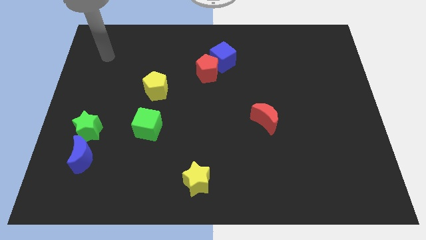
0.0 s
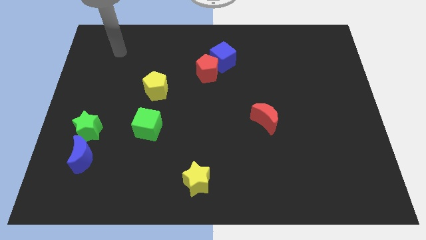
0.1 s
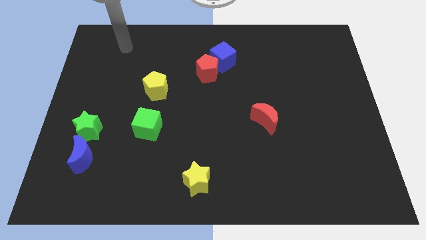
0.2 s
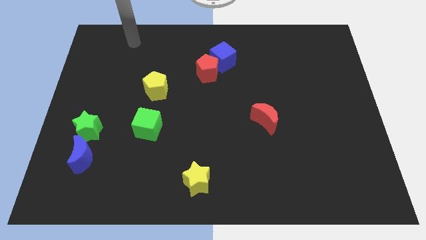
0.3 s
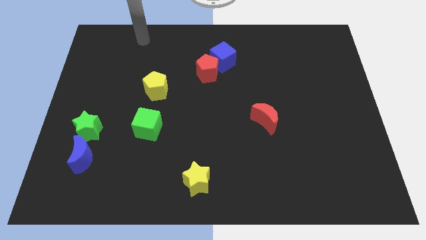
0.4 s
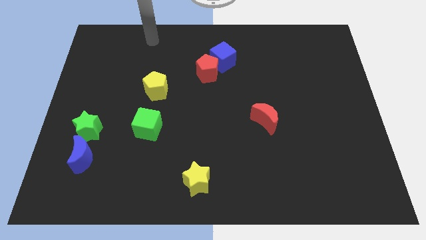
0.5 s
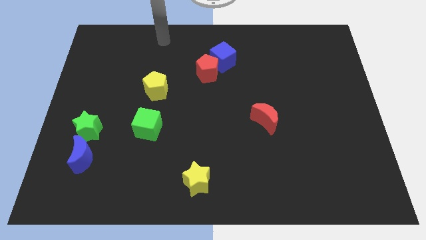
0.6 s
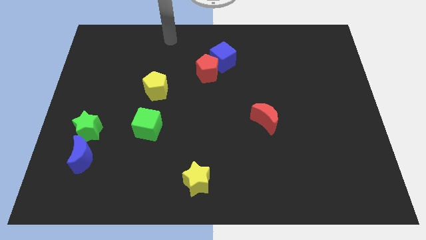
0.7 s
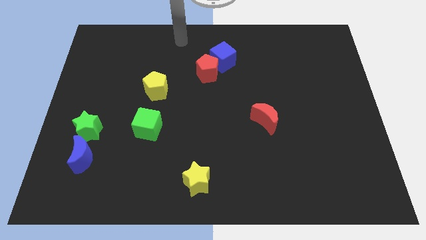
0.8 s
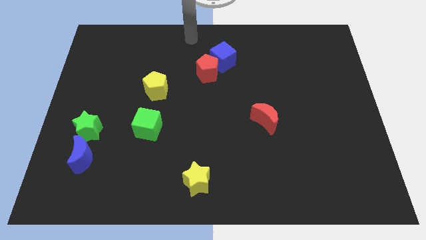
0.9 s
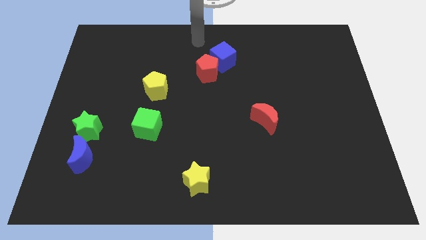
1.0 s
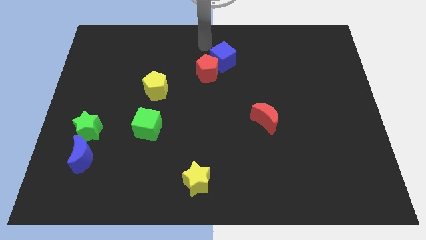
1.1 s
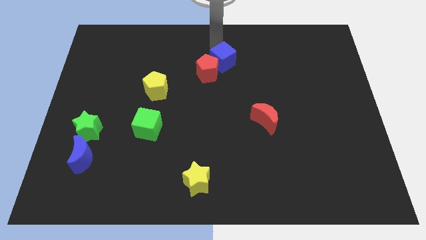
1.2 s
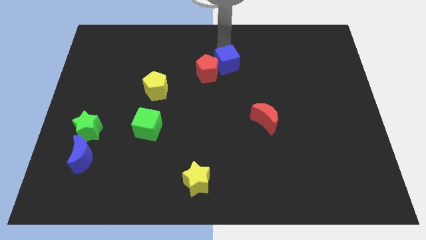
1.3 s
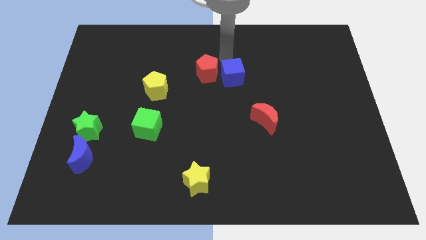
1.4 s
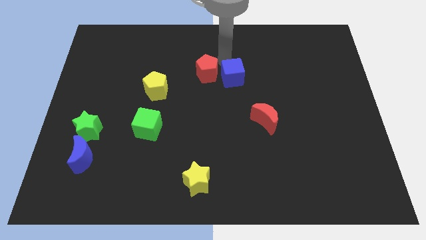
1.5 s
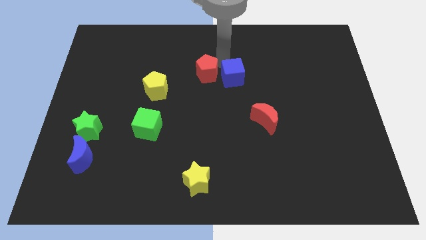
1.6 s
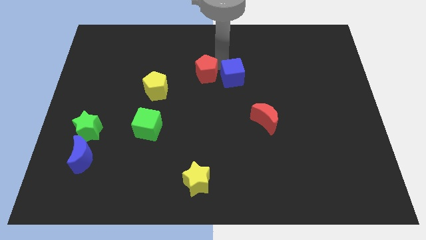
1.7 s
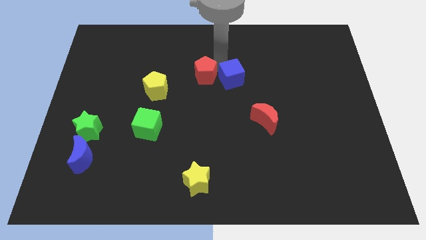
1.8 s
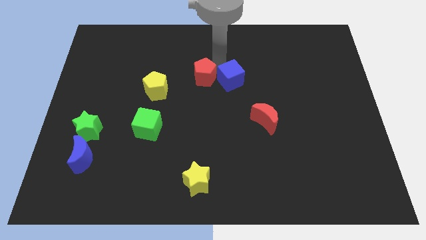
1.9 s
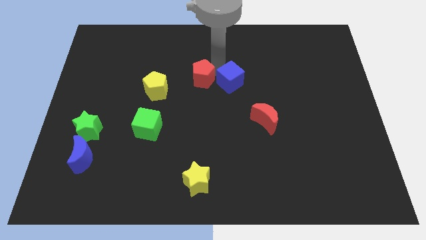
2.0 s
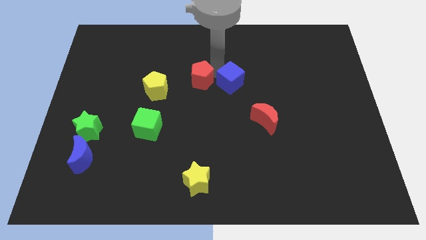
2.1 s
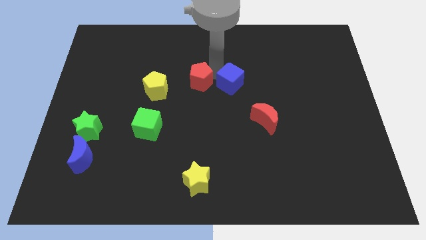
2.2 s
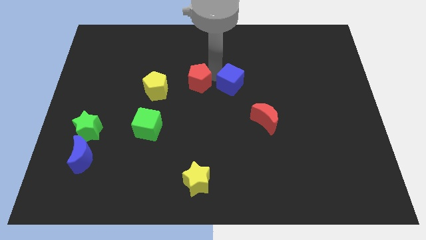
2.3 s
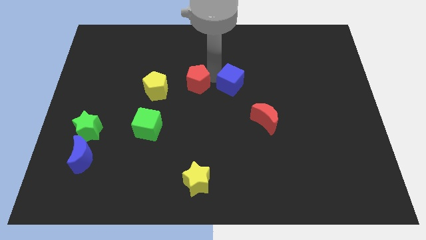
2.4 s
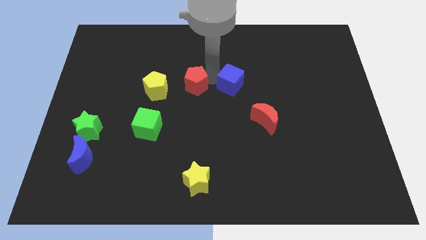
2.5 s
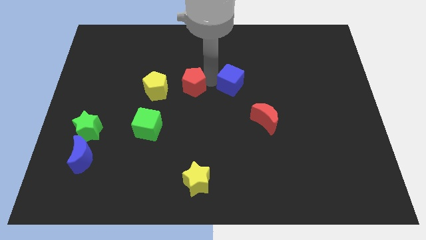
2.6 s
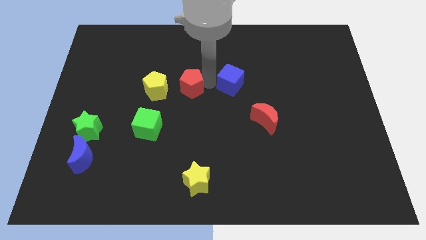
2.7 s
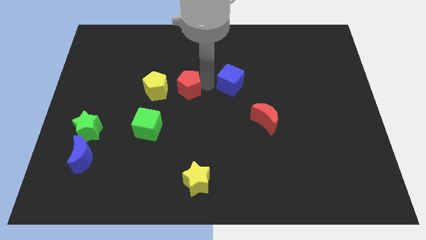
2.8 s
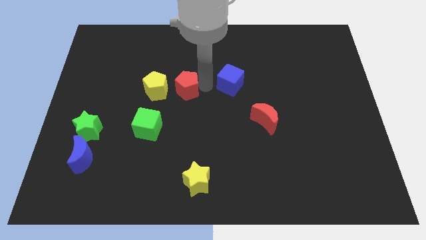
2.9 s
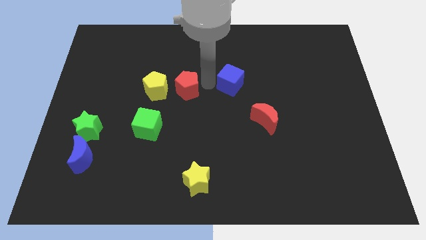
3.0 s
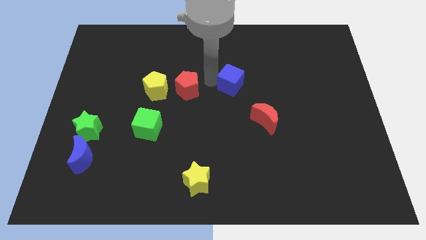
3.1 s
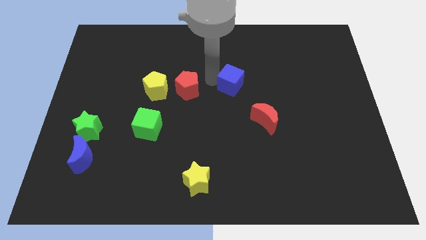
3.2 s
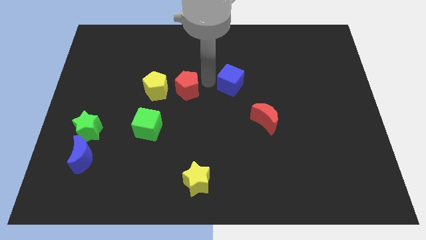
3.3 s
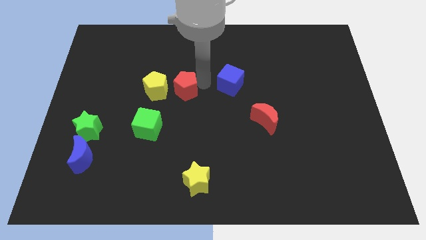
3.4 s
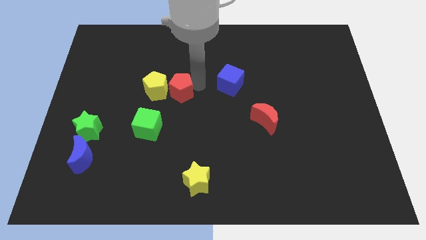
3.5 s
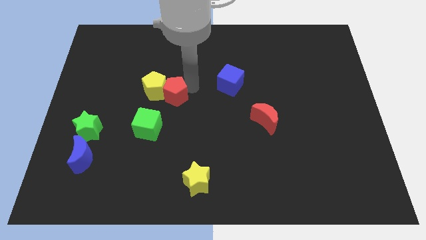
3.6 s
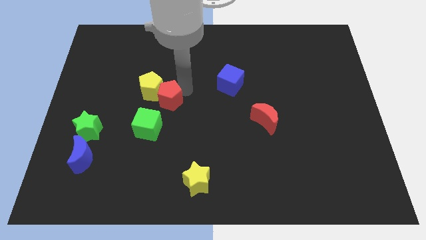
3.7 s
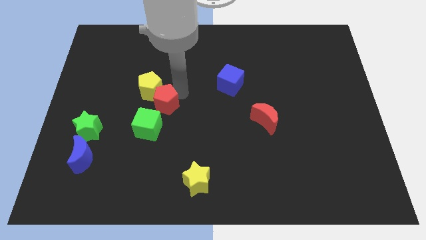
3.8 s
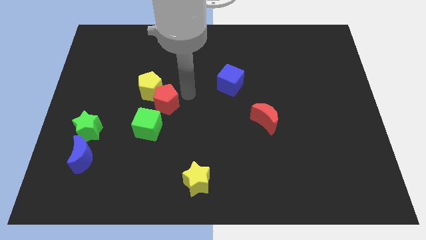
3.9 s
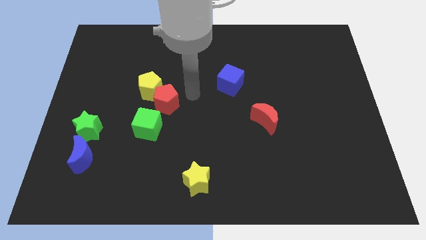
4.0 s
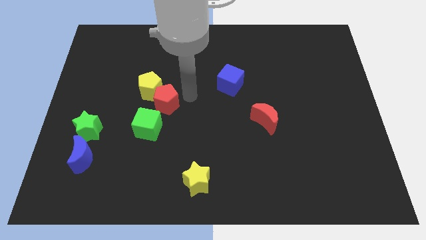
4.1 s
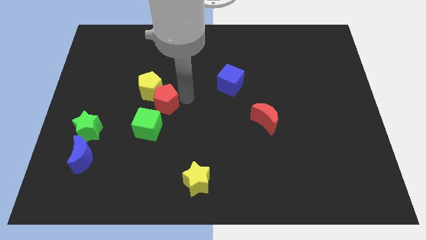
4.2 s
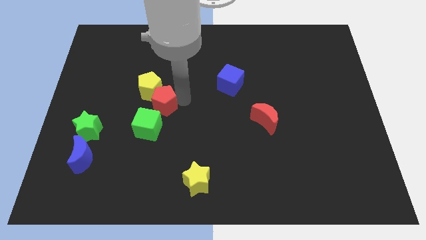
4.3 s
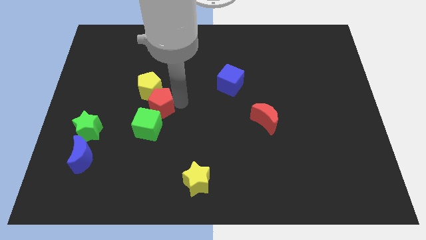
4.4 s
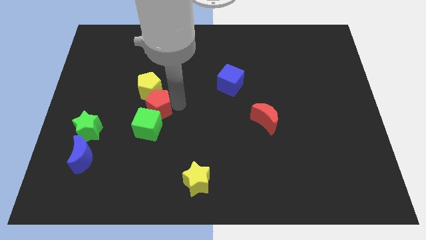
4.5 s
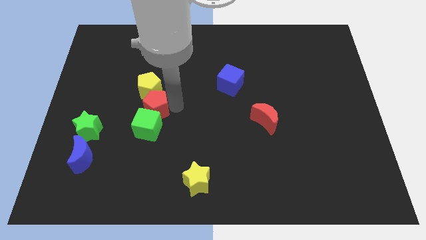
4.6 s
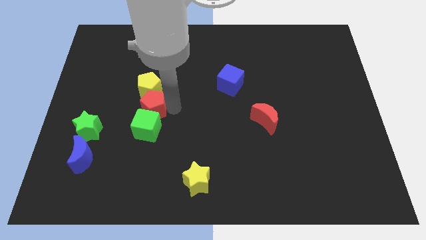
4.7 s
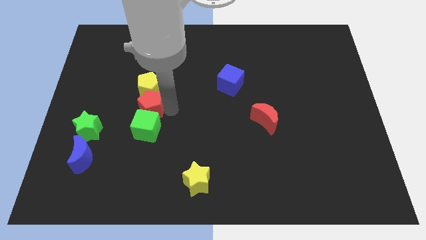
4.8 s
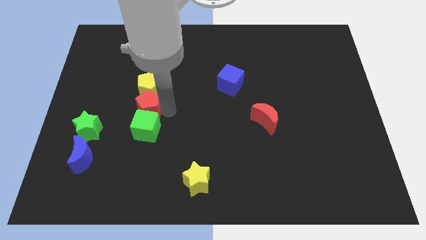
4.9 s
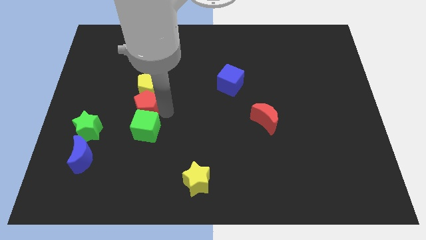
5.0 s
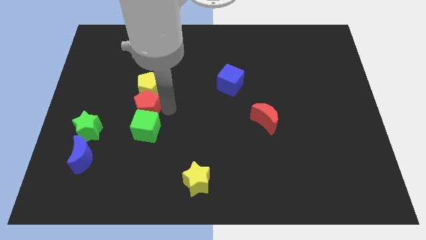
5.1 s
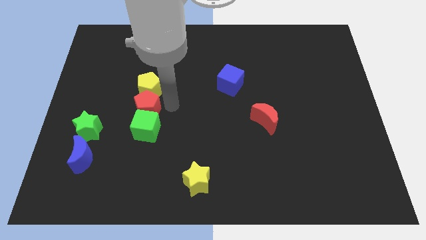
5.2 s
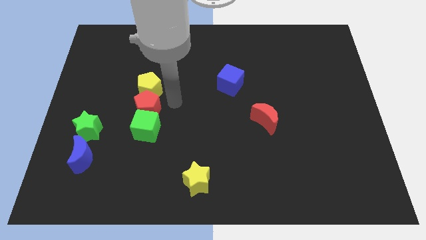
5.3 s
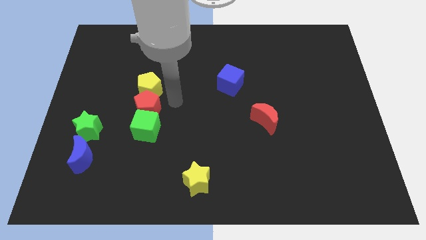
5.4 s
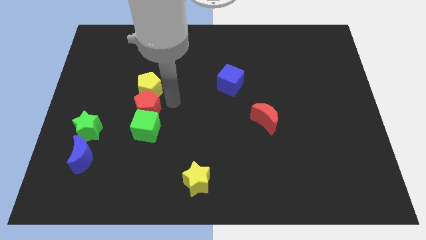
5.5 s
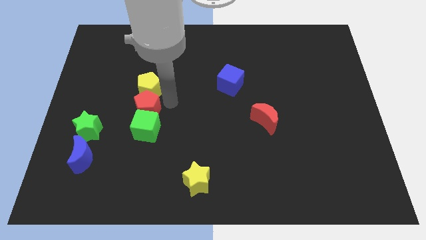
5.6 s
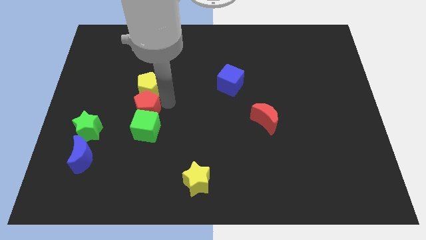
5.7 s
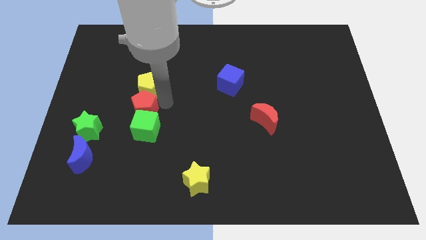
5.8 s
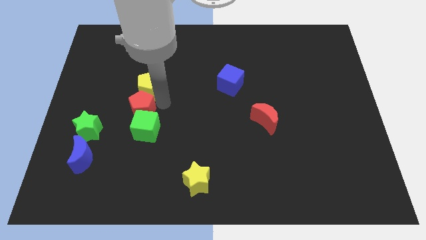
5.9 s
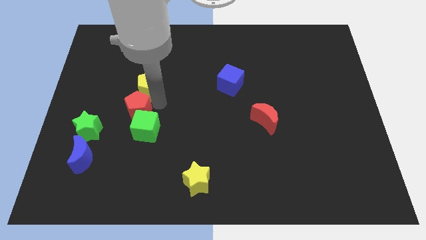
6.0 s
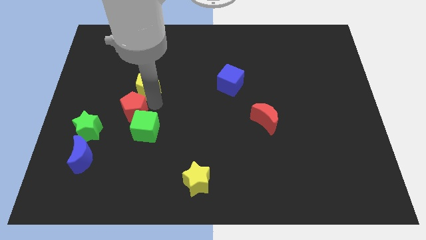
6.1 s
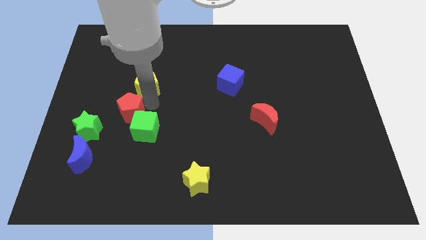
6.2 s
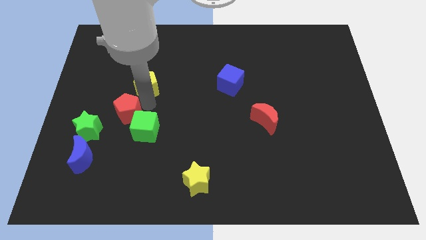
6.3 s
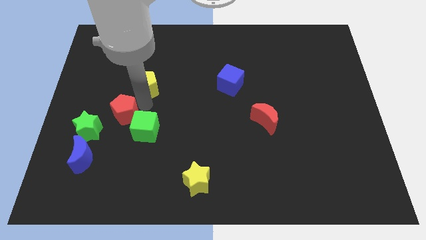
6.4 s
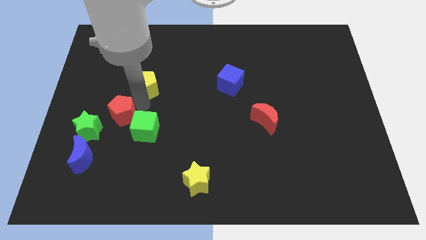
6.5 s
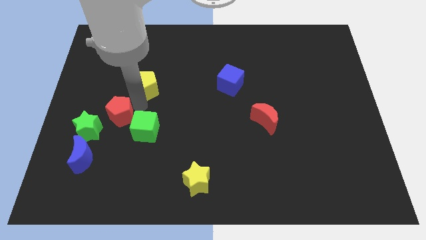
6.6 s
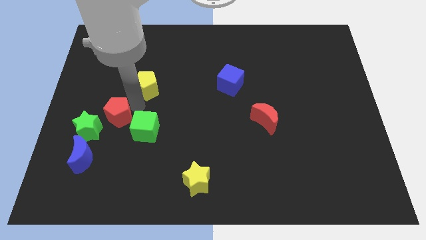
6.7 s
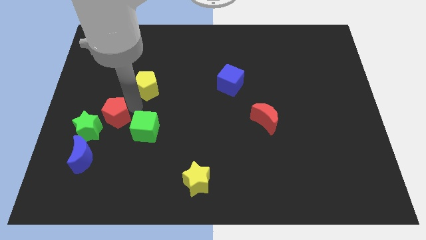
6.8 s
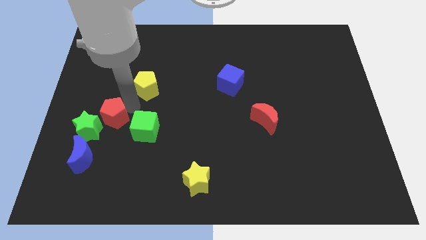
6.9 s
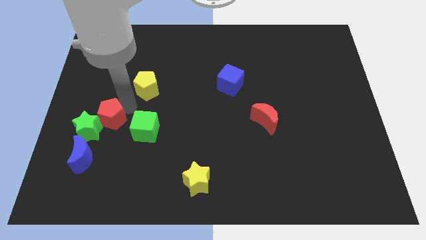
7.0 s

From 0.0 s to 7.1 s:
put the red pentagon towards the green star

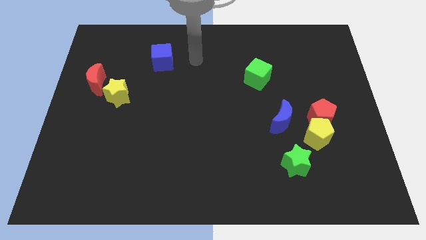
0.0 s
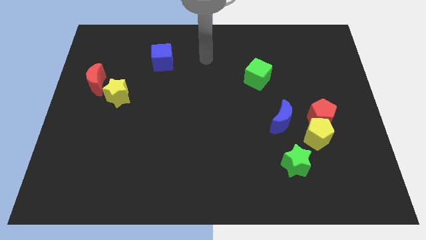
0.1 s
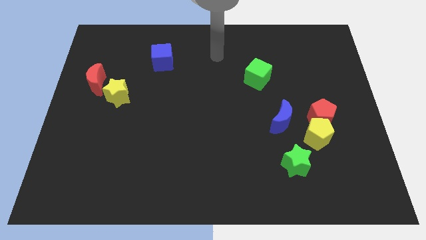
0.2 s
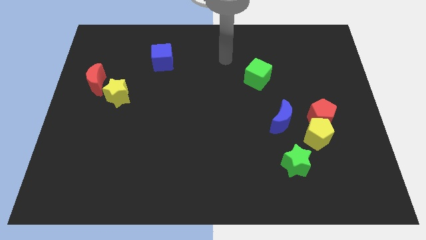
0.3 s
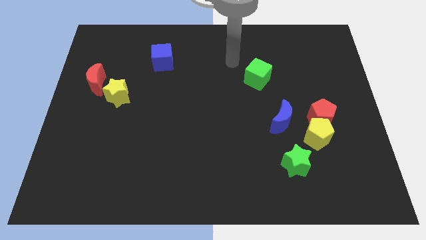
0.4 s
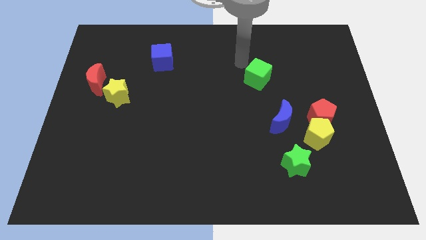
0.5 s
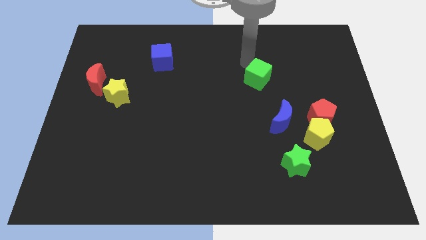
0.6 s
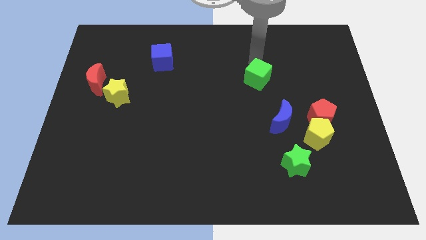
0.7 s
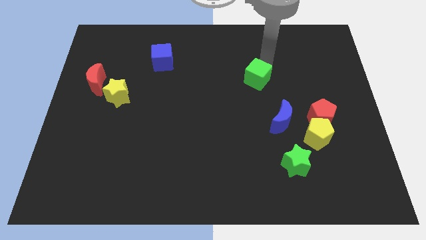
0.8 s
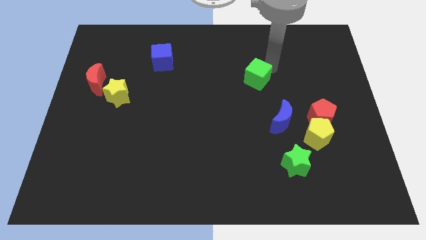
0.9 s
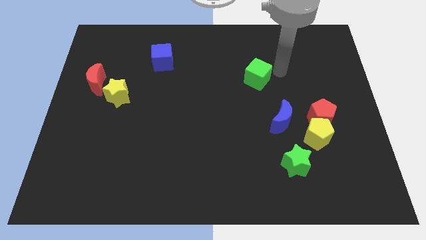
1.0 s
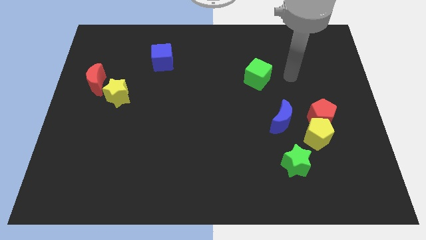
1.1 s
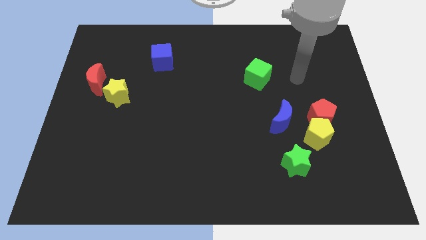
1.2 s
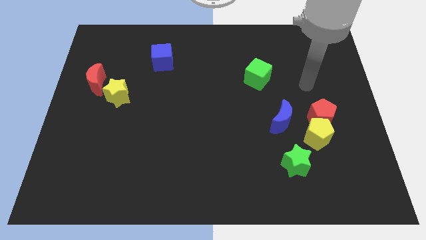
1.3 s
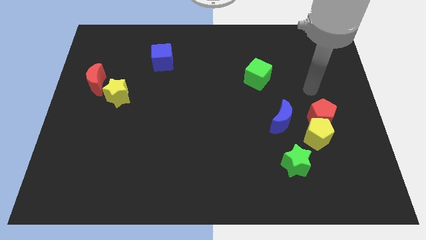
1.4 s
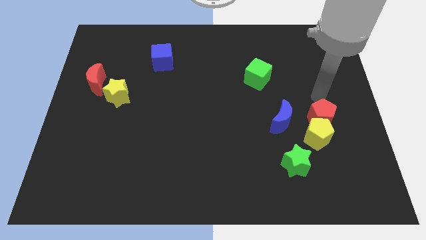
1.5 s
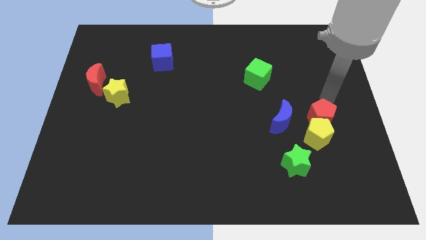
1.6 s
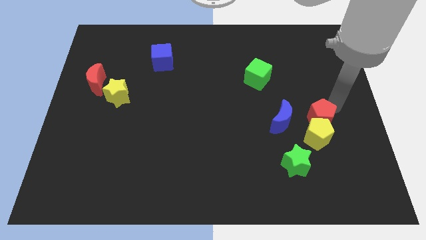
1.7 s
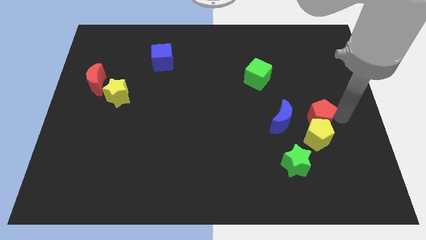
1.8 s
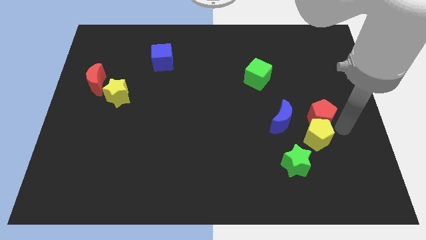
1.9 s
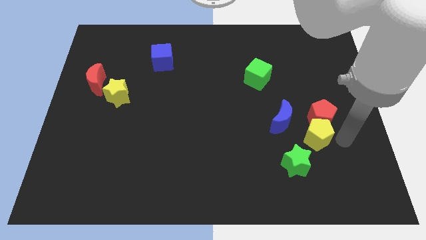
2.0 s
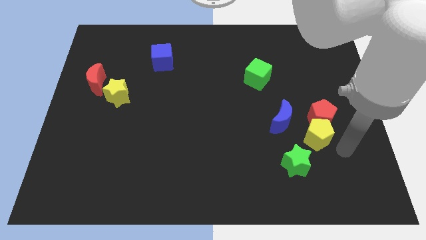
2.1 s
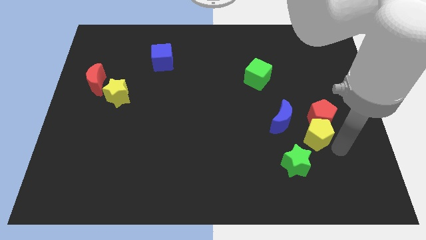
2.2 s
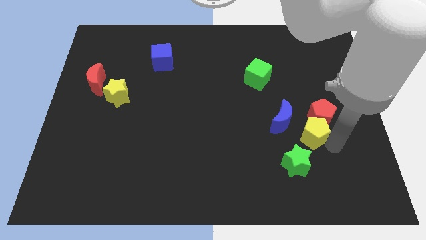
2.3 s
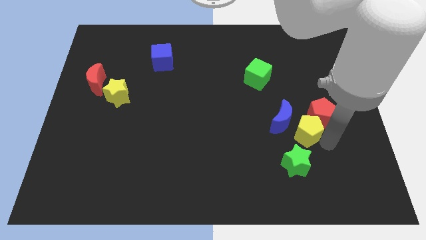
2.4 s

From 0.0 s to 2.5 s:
put the yellow pentagon towards the blue moon
